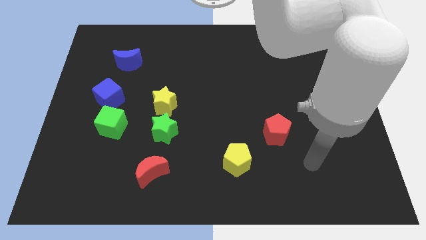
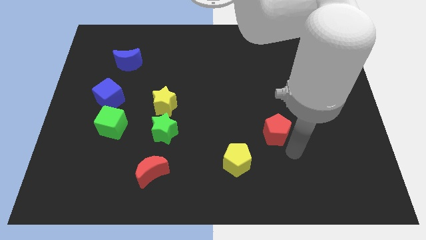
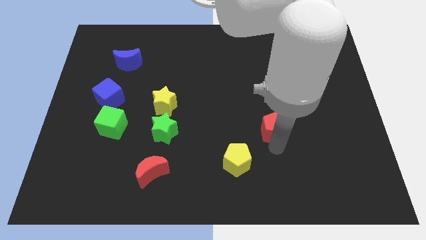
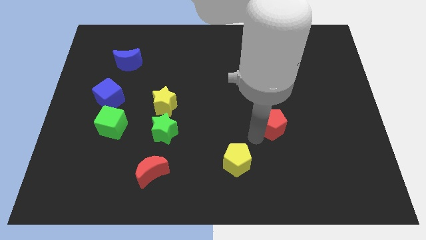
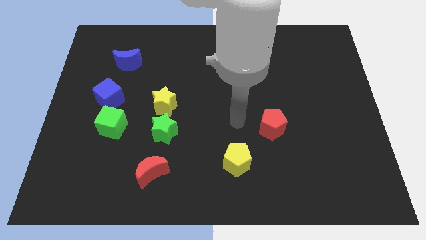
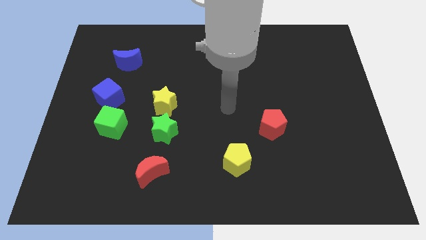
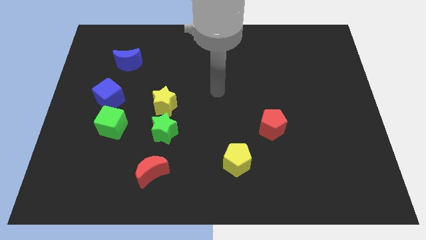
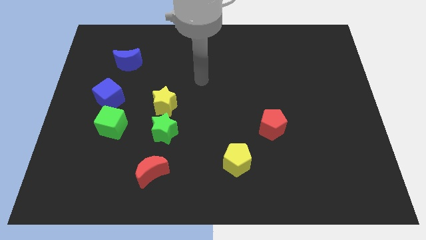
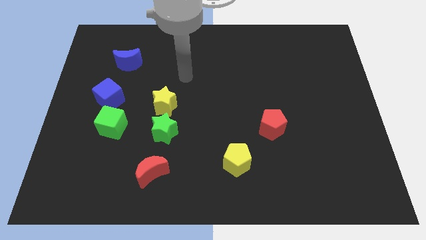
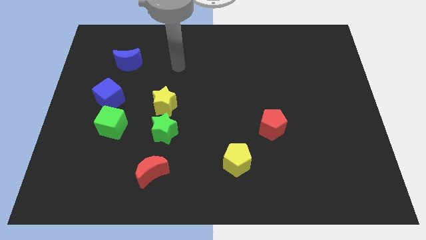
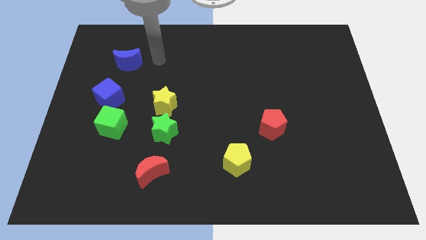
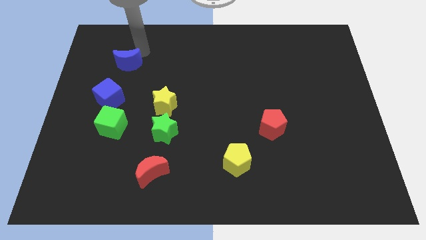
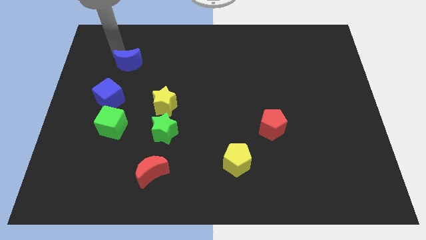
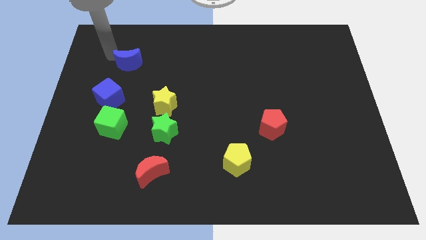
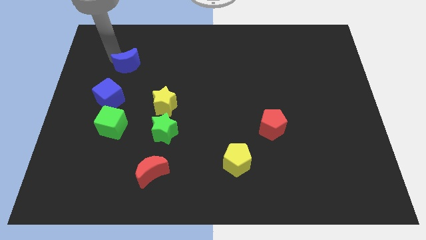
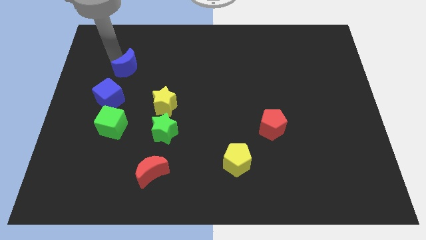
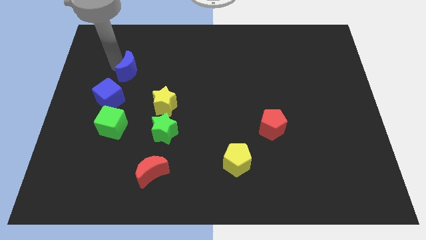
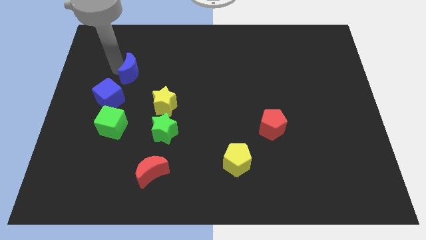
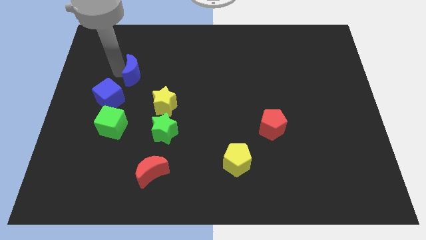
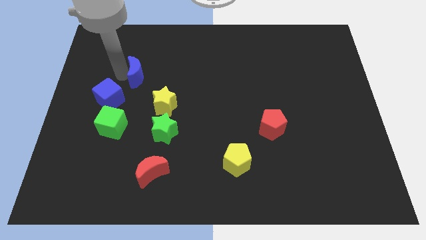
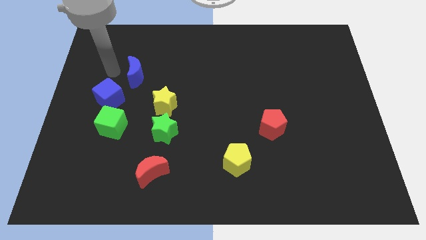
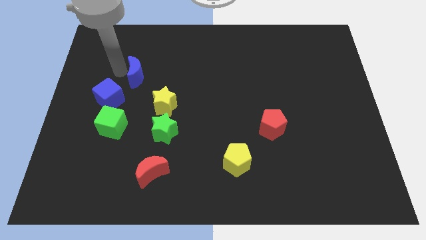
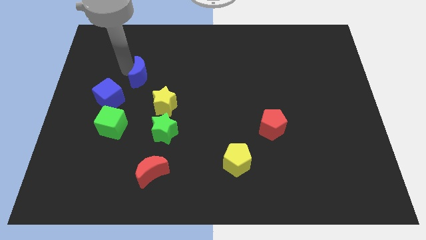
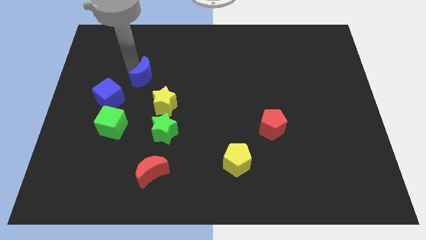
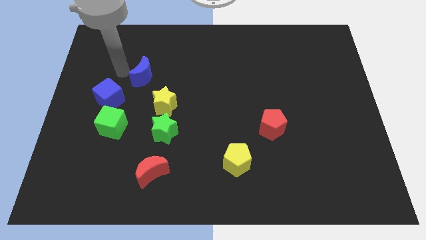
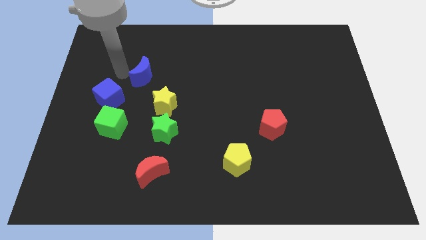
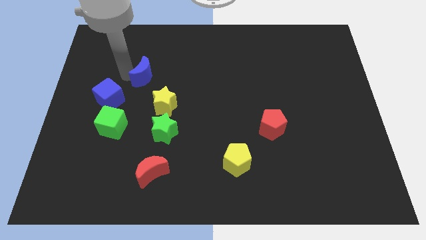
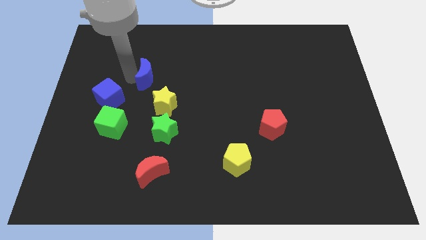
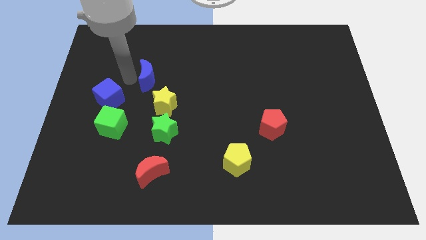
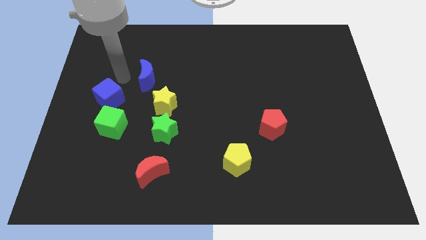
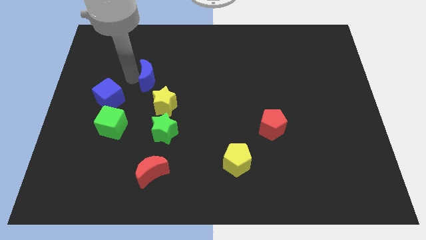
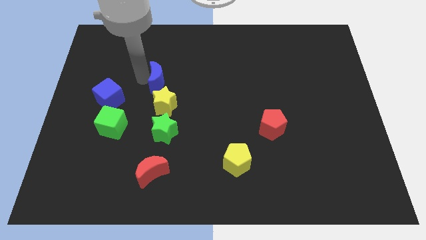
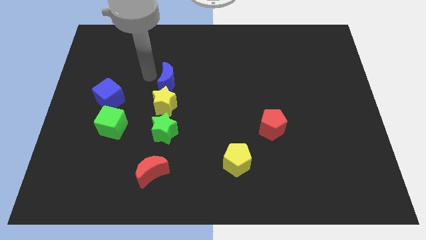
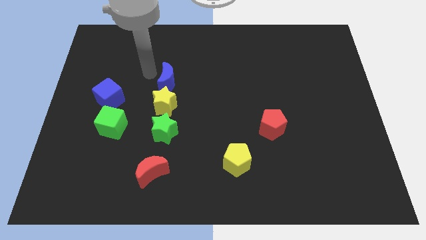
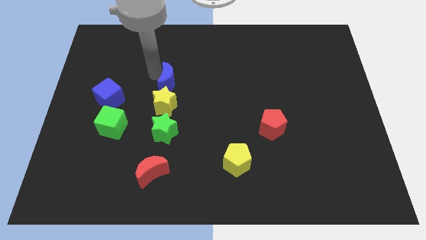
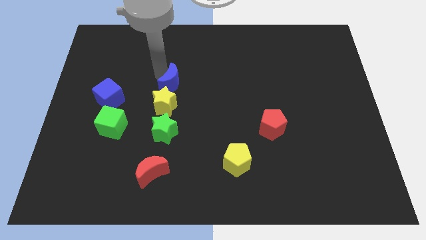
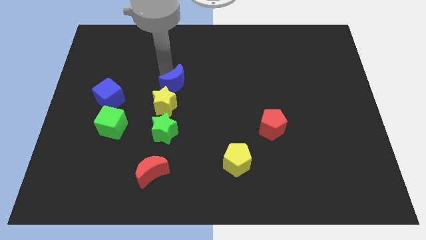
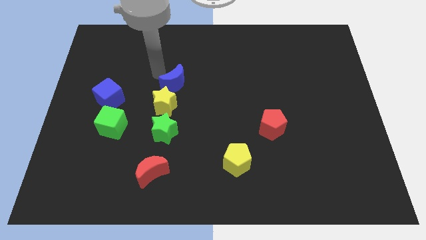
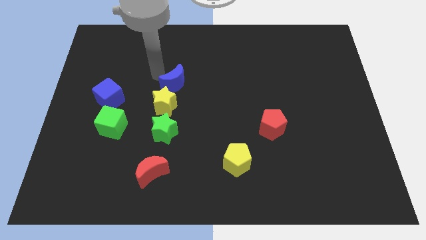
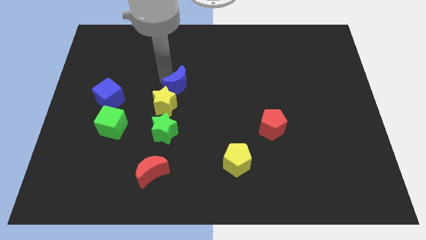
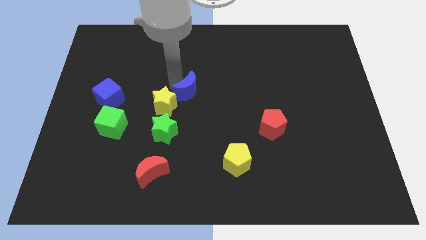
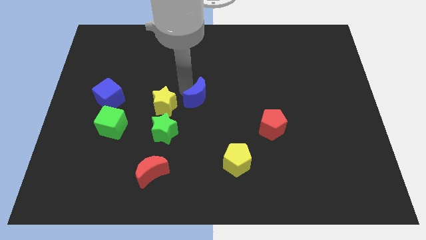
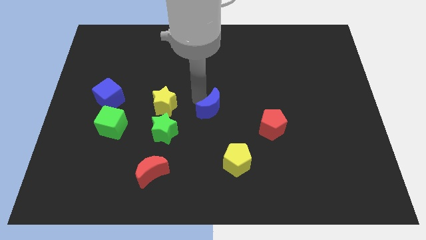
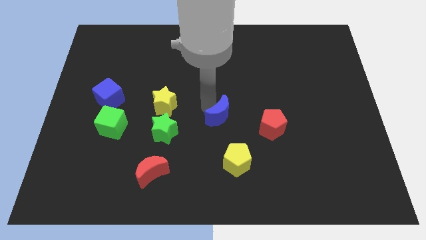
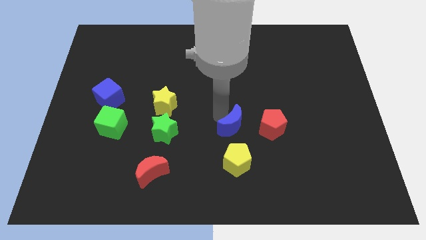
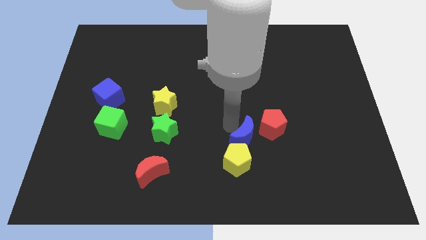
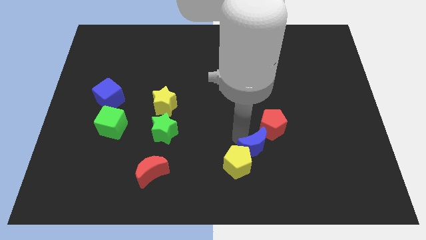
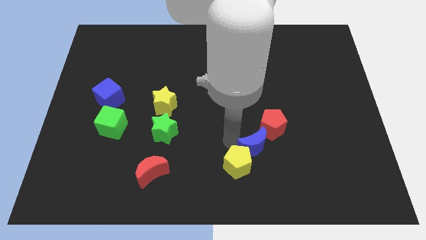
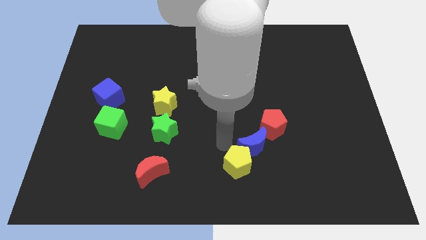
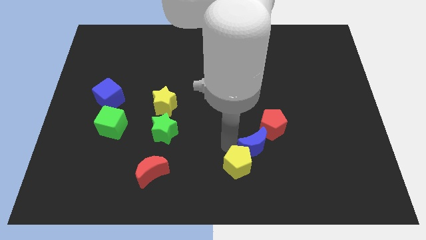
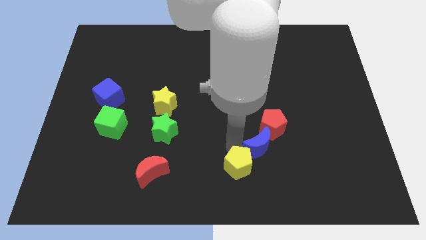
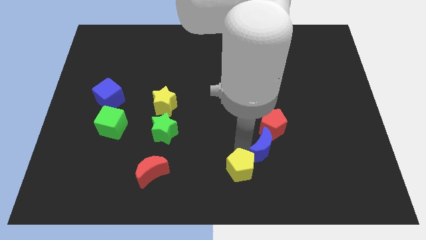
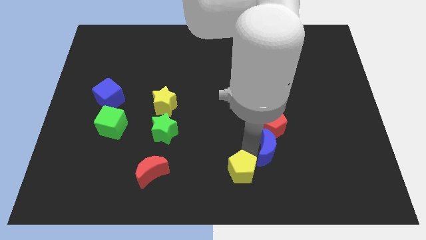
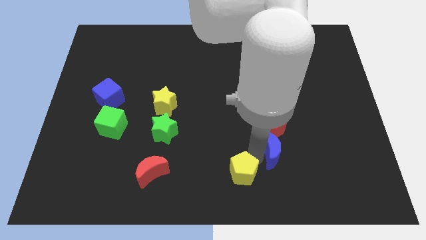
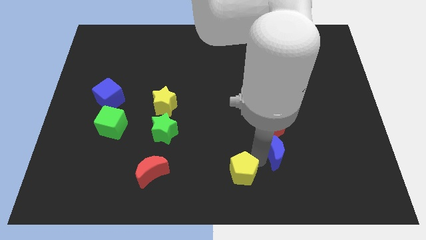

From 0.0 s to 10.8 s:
move the blue moon to the bottom right of the red pentagon

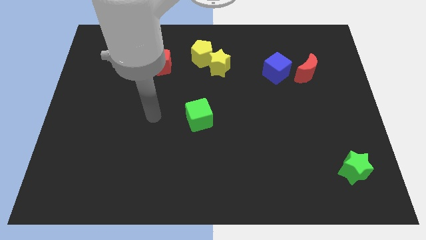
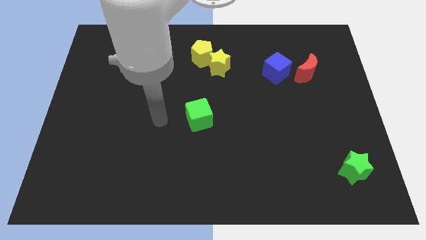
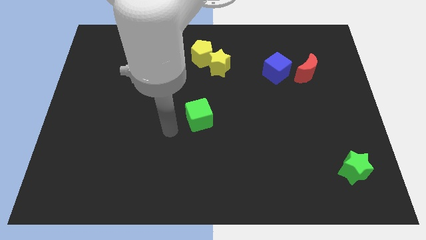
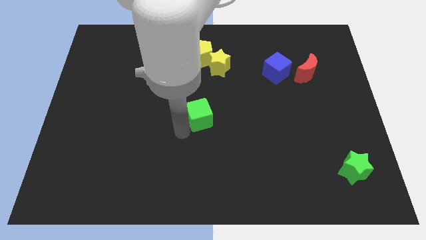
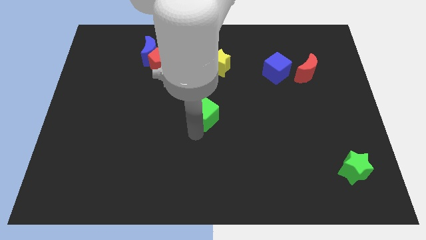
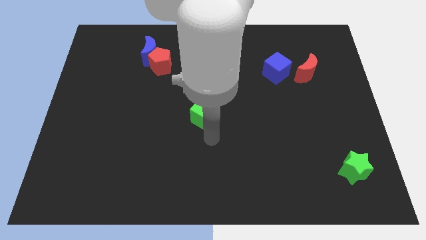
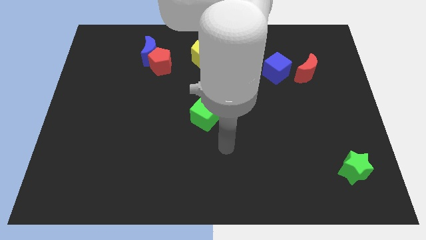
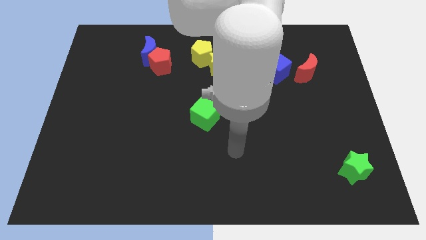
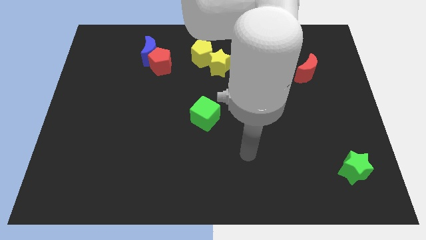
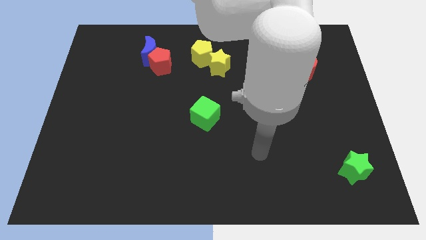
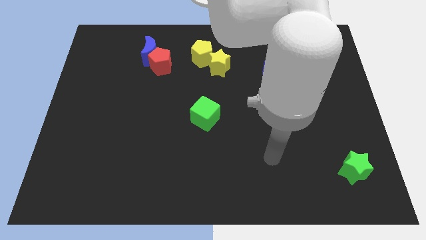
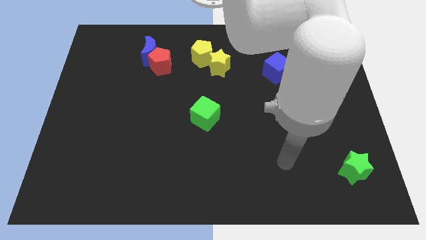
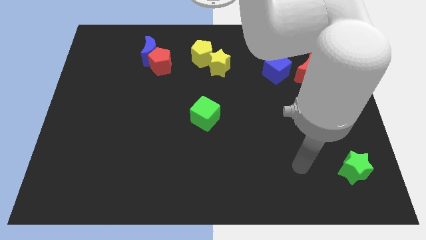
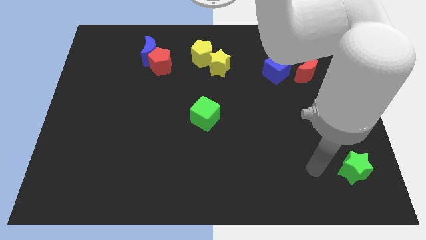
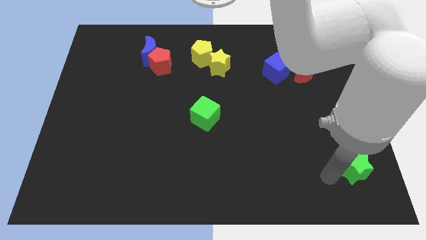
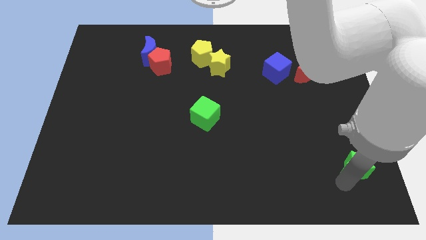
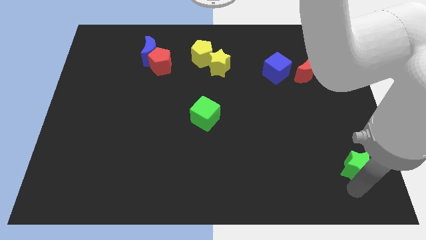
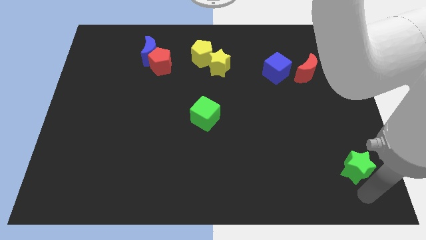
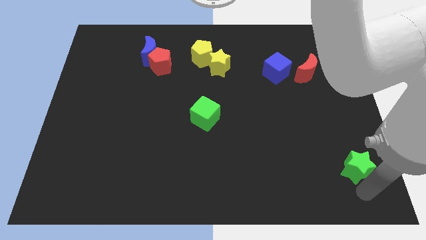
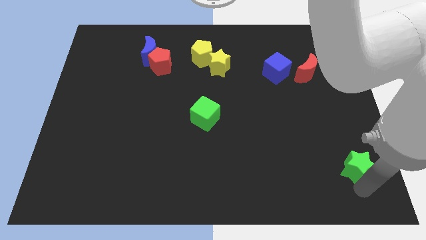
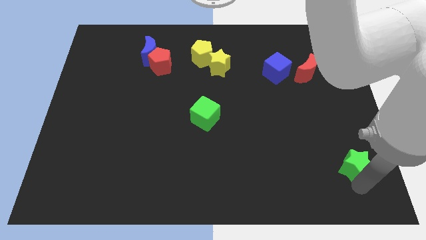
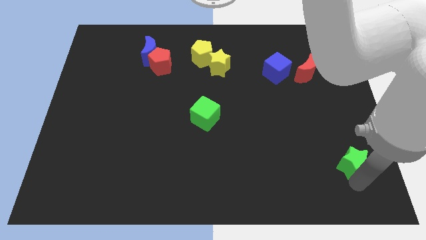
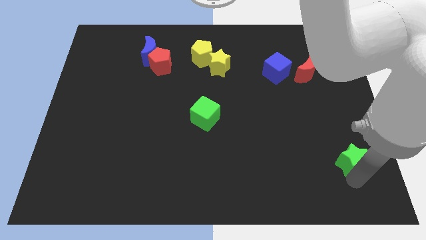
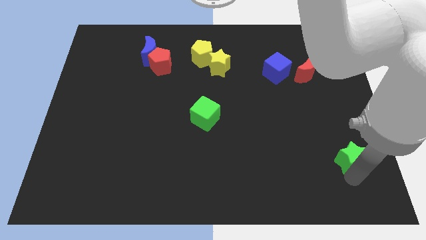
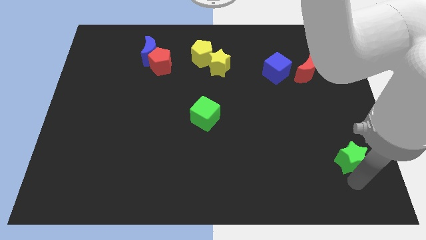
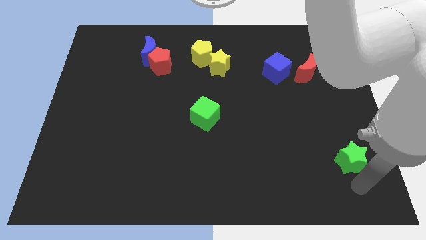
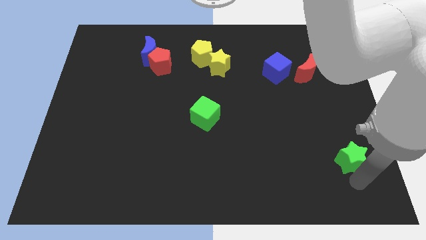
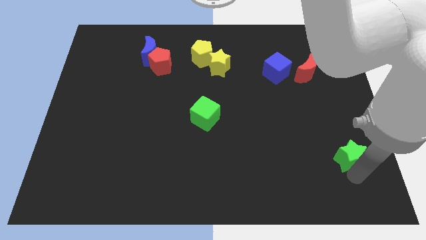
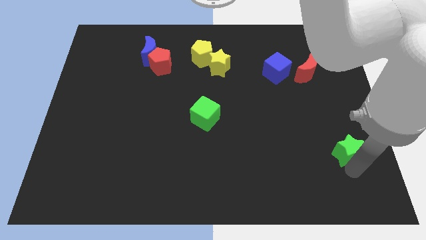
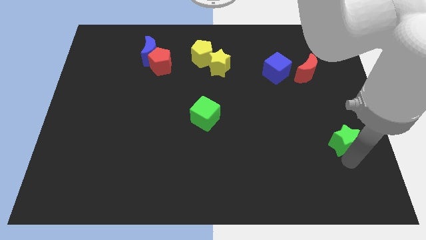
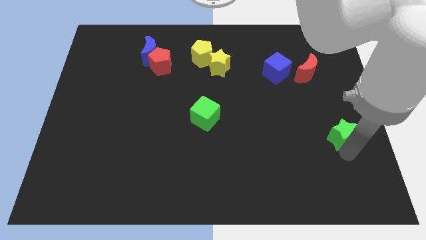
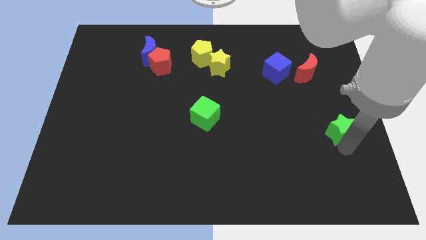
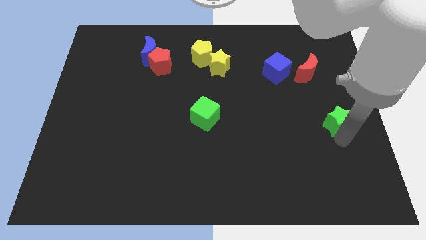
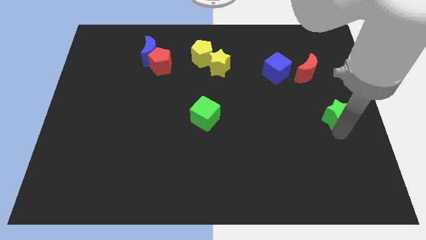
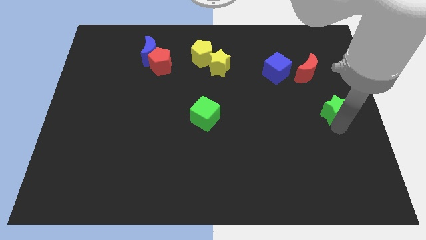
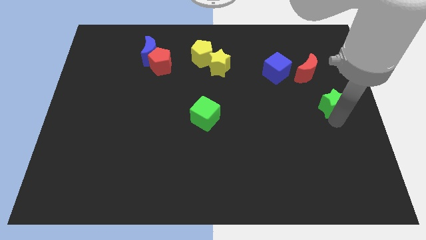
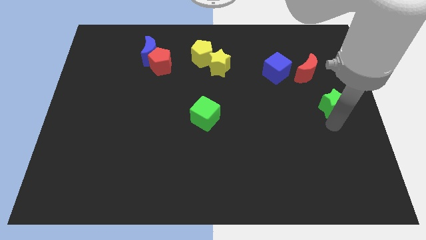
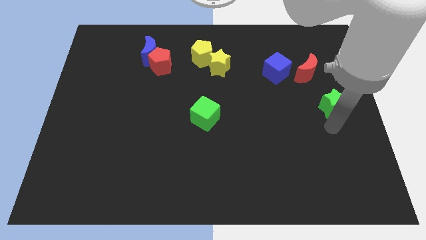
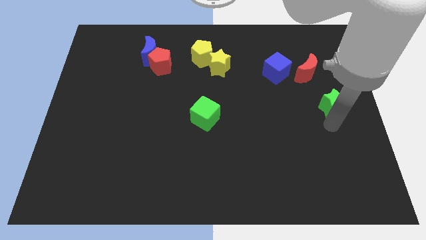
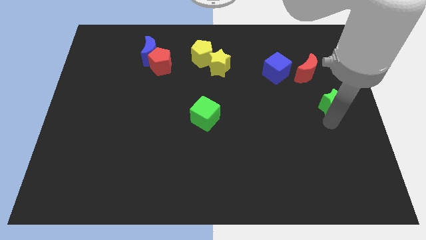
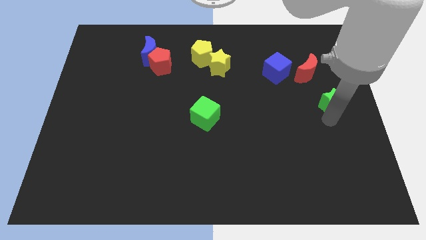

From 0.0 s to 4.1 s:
move the green star to the bottom right side of the red moon
